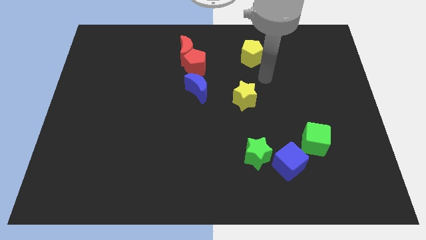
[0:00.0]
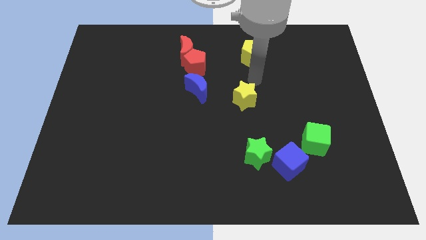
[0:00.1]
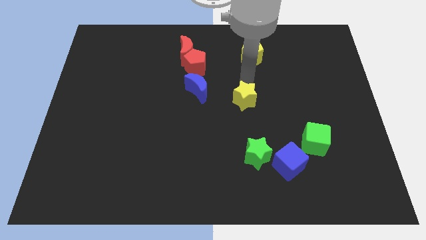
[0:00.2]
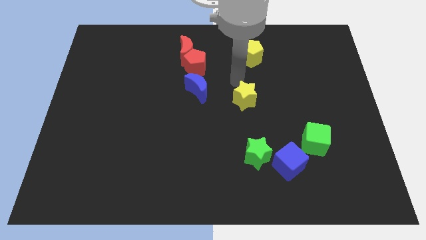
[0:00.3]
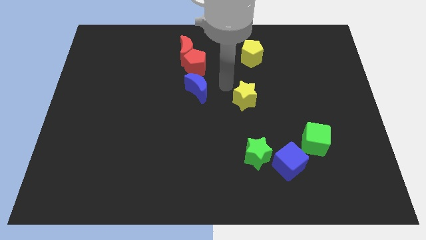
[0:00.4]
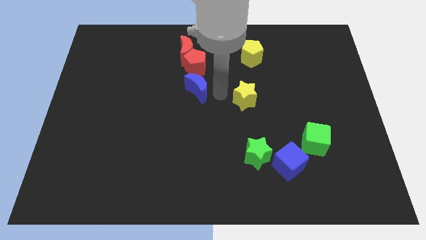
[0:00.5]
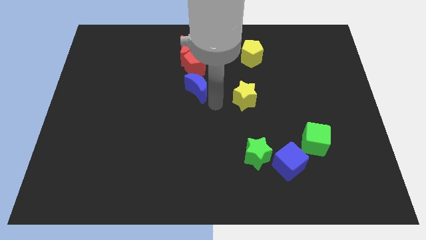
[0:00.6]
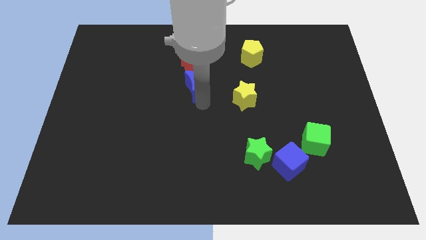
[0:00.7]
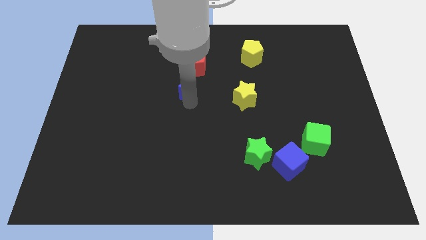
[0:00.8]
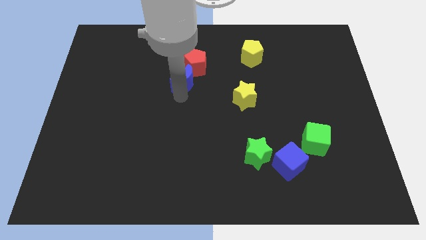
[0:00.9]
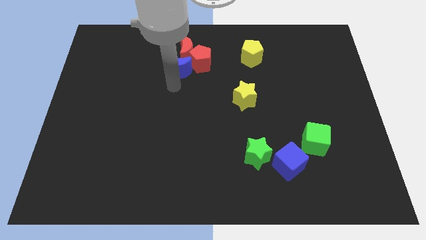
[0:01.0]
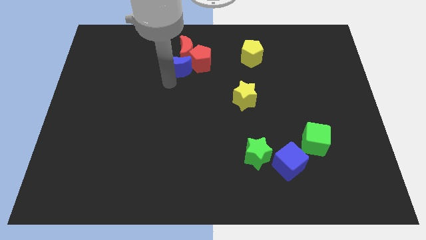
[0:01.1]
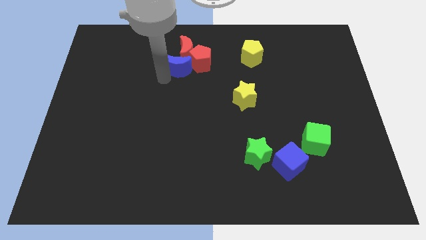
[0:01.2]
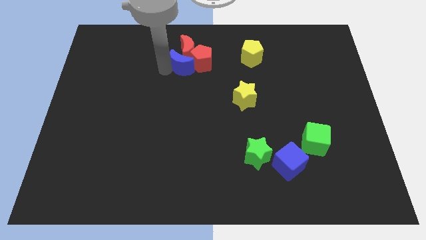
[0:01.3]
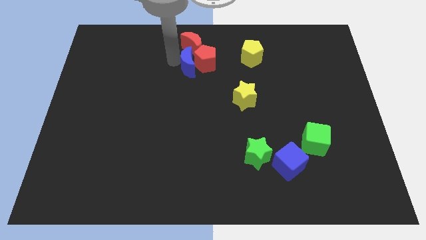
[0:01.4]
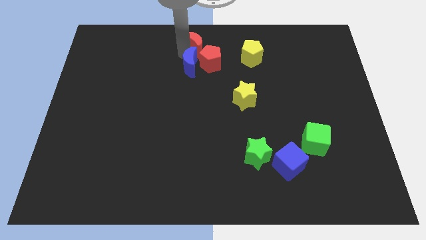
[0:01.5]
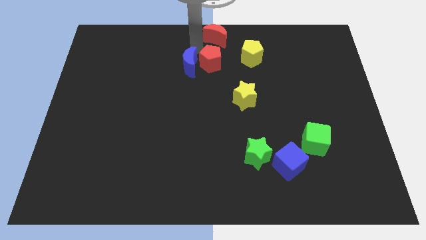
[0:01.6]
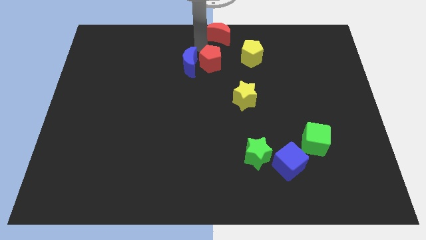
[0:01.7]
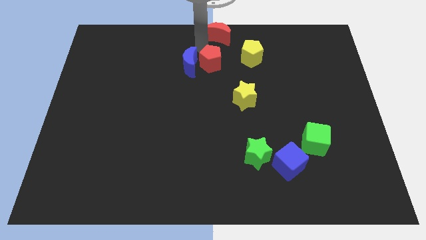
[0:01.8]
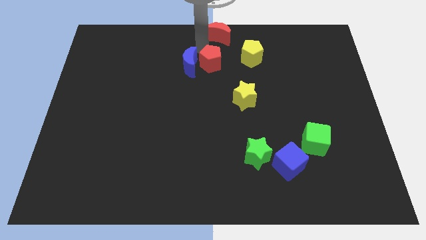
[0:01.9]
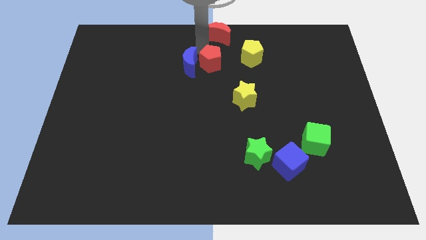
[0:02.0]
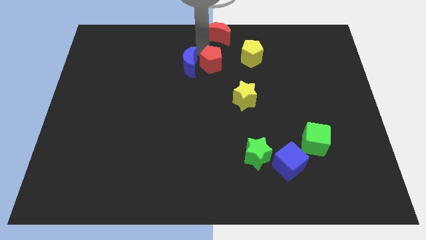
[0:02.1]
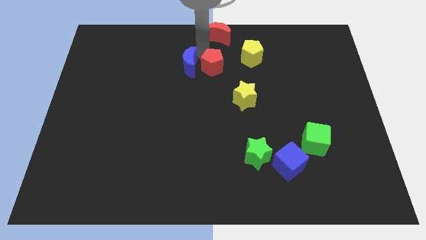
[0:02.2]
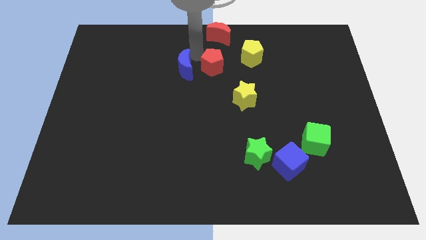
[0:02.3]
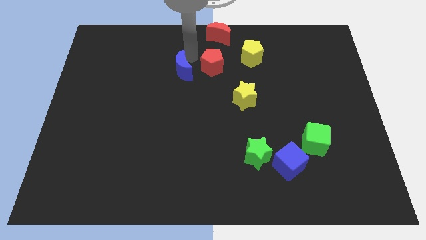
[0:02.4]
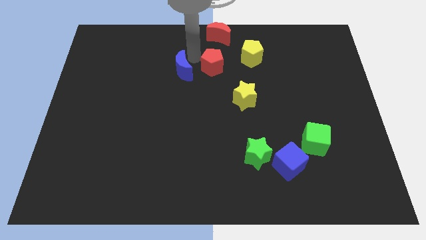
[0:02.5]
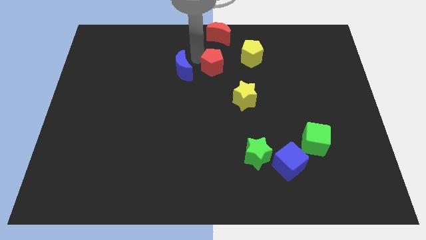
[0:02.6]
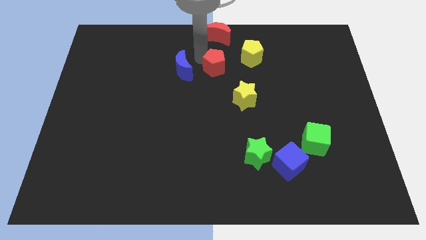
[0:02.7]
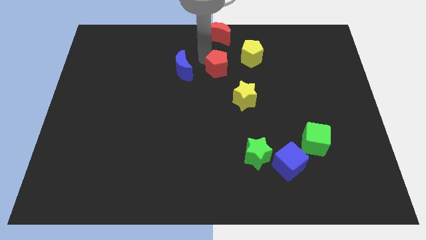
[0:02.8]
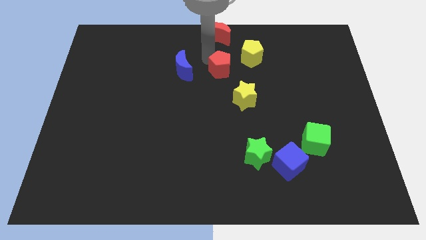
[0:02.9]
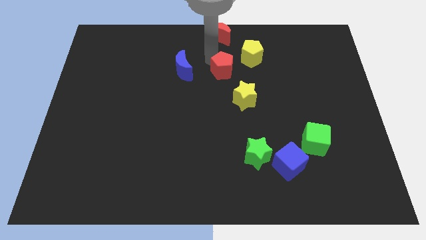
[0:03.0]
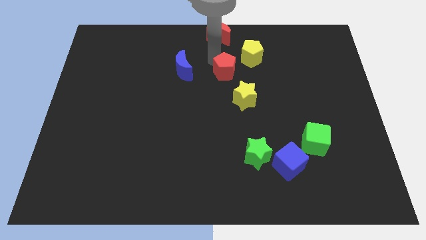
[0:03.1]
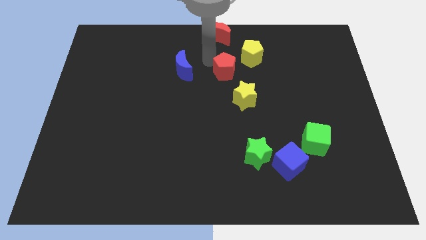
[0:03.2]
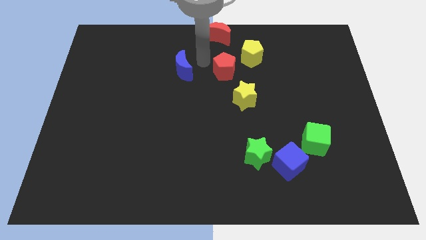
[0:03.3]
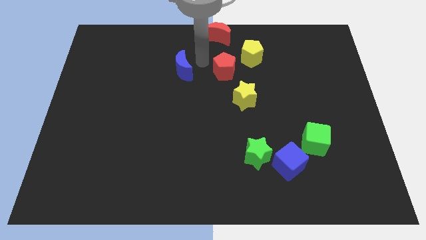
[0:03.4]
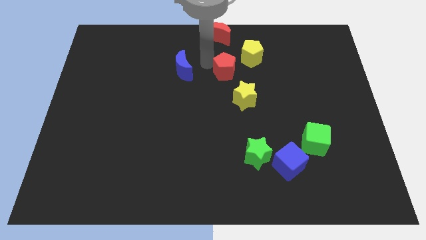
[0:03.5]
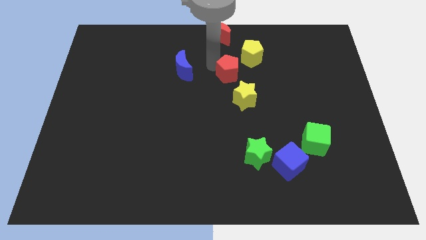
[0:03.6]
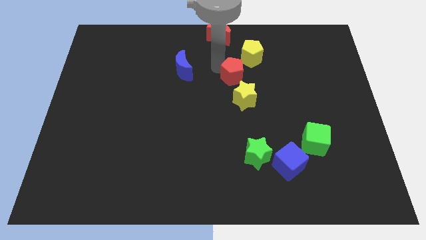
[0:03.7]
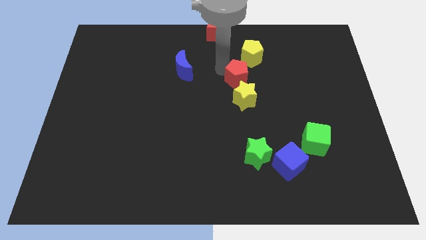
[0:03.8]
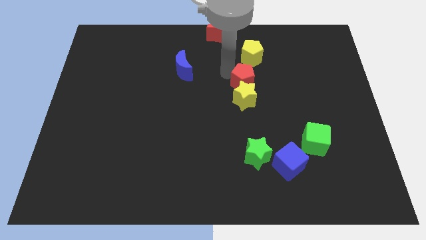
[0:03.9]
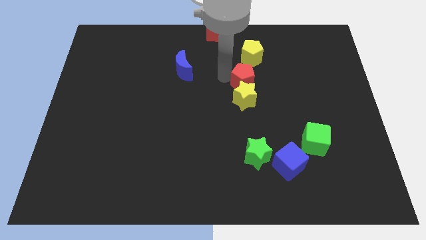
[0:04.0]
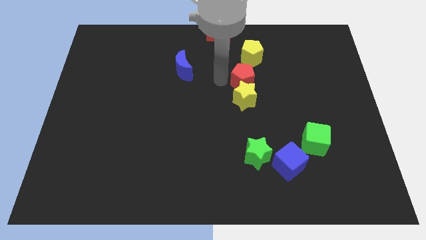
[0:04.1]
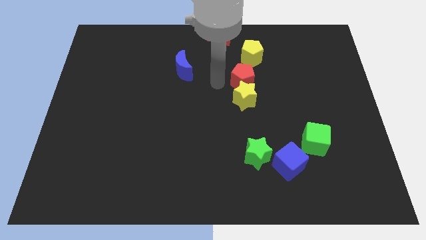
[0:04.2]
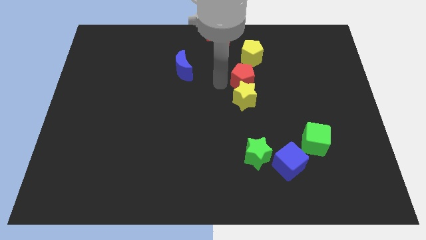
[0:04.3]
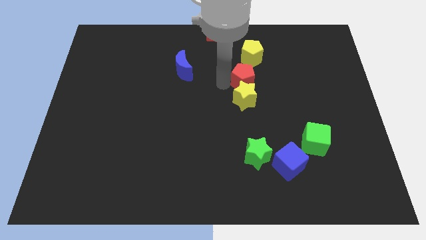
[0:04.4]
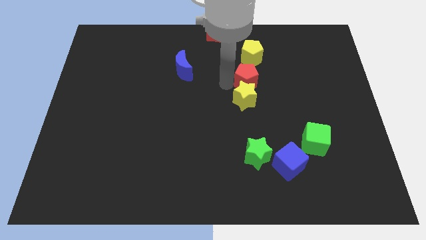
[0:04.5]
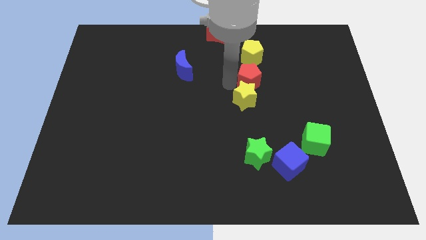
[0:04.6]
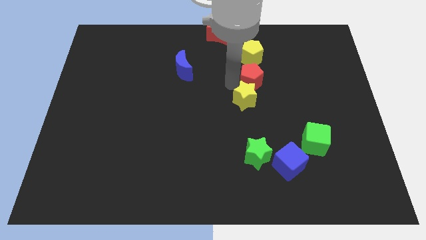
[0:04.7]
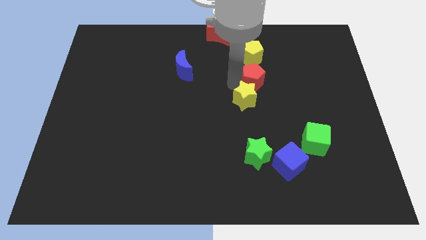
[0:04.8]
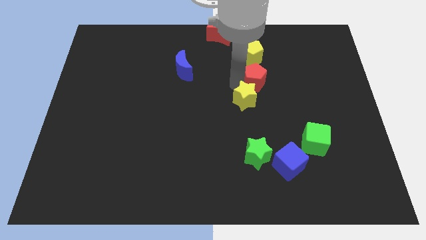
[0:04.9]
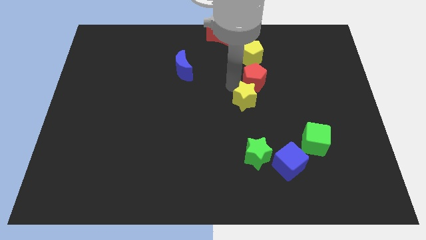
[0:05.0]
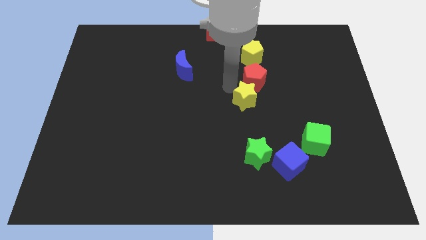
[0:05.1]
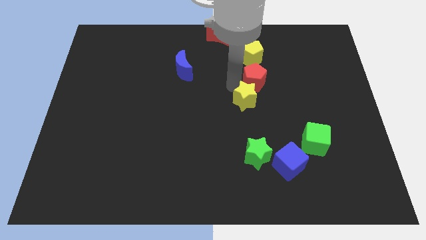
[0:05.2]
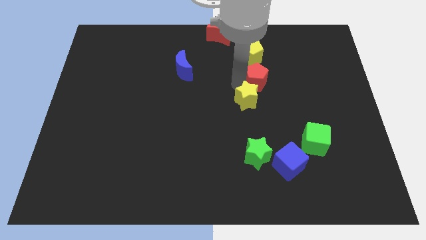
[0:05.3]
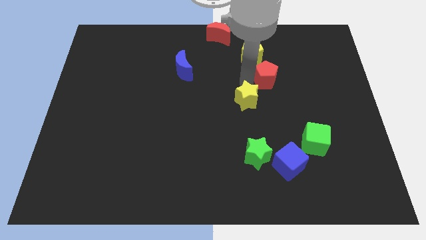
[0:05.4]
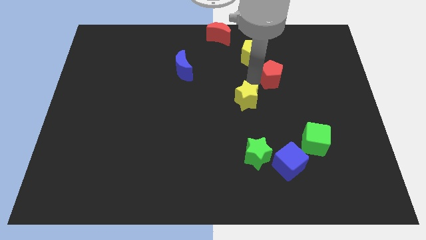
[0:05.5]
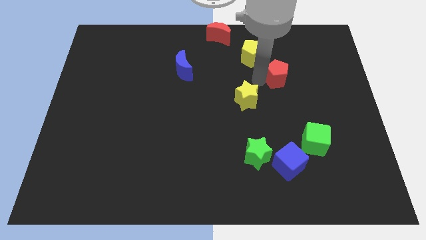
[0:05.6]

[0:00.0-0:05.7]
move the red pentagon right

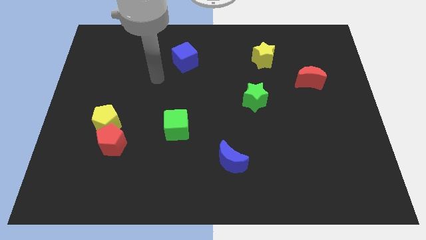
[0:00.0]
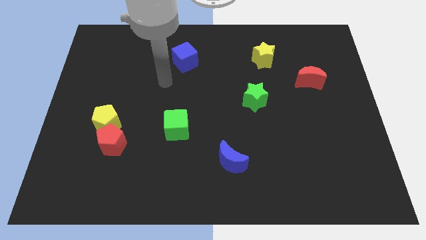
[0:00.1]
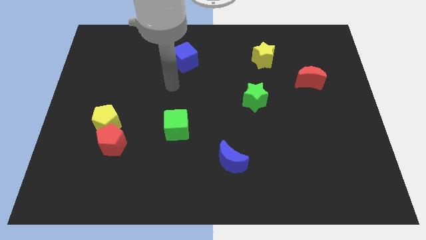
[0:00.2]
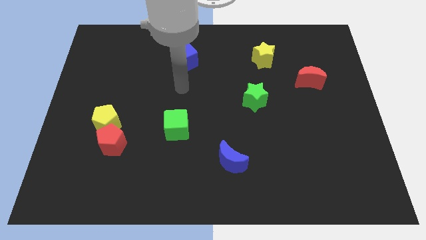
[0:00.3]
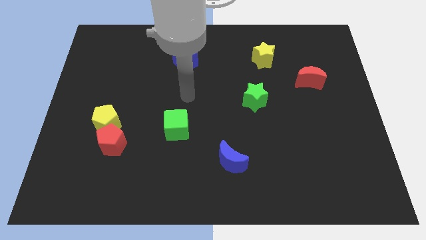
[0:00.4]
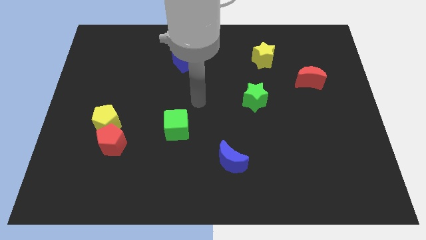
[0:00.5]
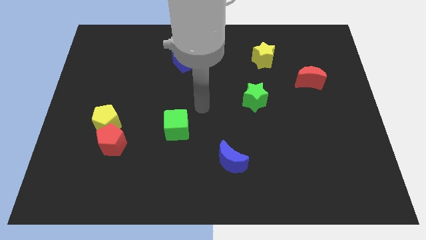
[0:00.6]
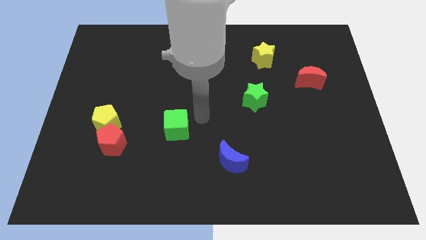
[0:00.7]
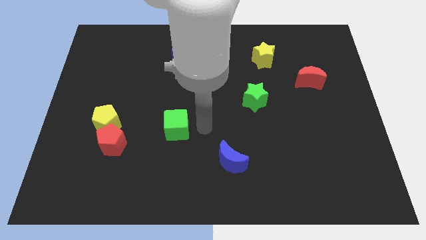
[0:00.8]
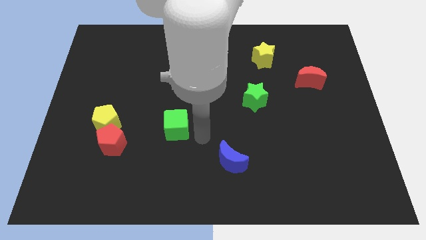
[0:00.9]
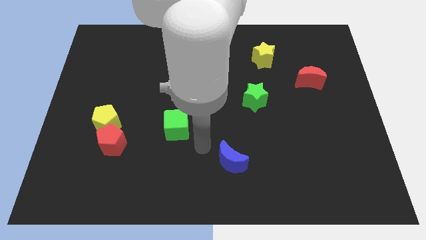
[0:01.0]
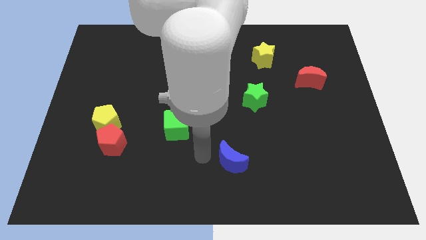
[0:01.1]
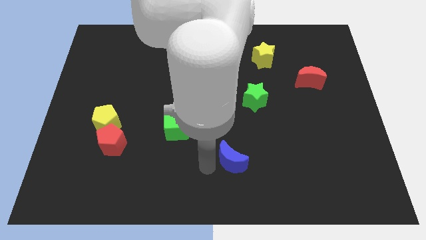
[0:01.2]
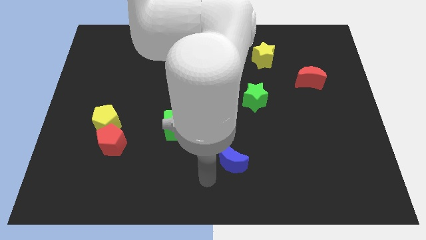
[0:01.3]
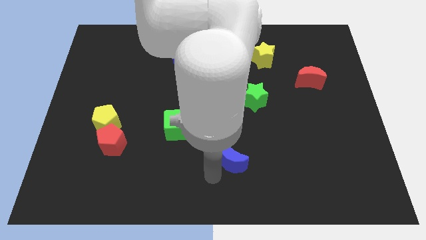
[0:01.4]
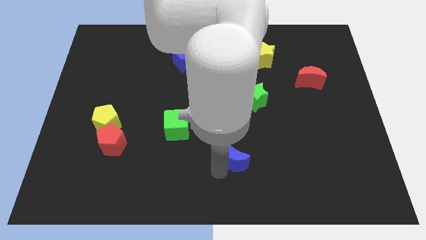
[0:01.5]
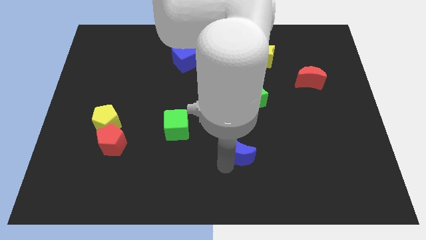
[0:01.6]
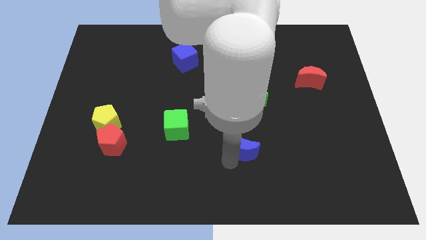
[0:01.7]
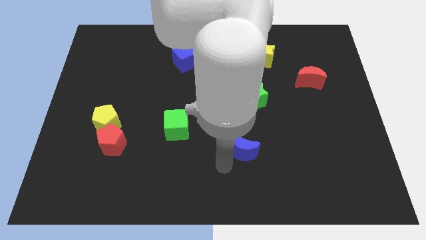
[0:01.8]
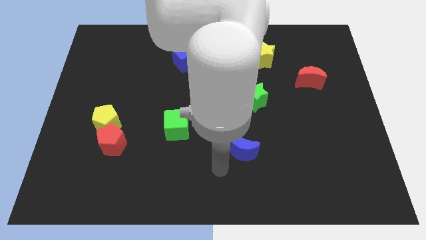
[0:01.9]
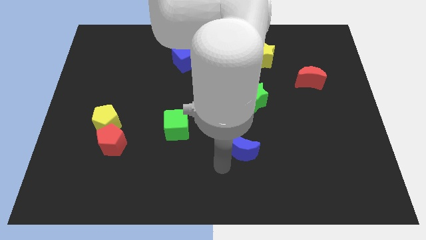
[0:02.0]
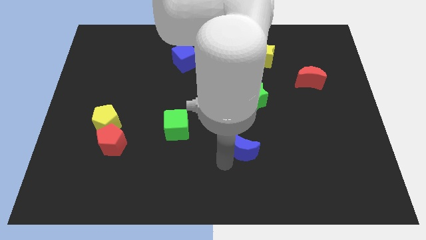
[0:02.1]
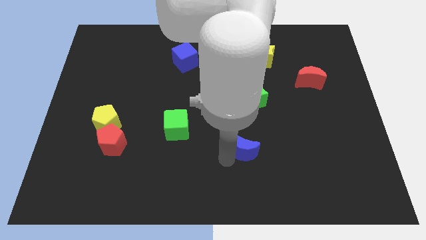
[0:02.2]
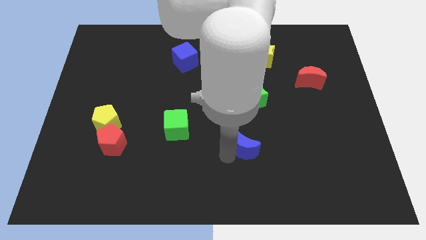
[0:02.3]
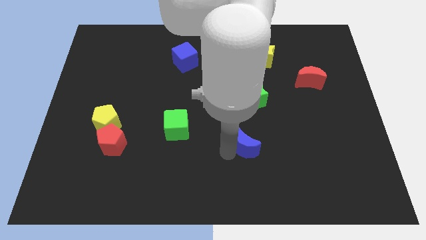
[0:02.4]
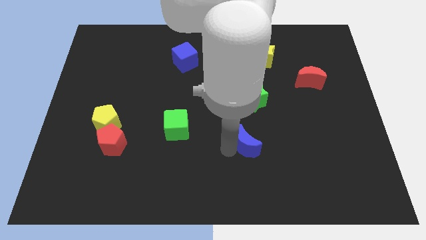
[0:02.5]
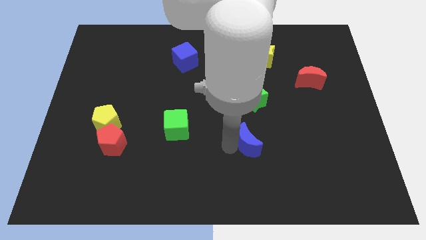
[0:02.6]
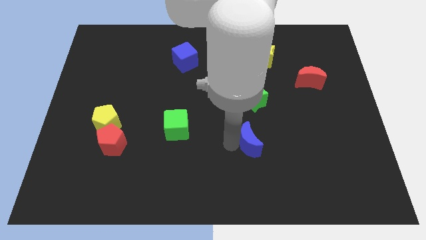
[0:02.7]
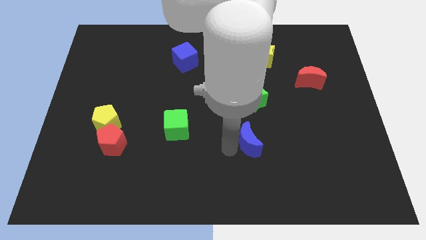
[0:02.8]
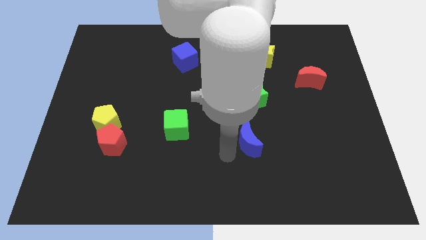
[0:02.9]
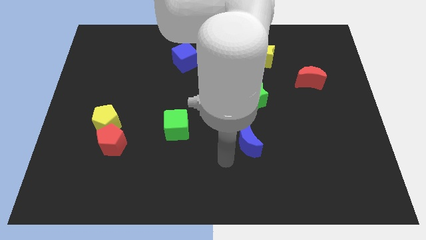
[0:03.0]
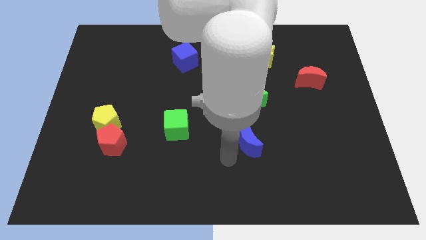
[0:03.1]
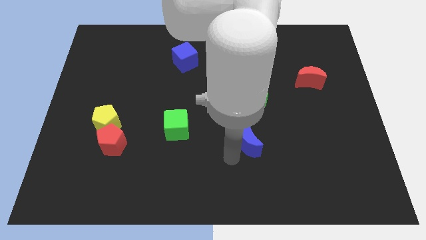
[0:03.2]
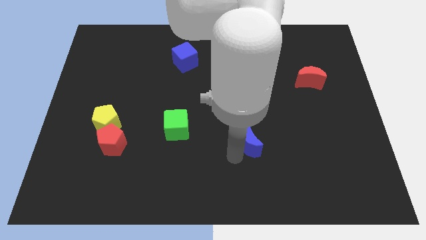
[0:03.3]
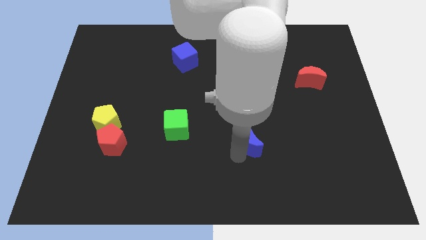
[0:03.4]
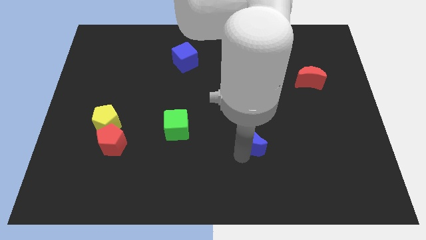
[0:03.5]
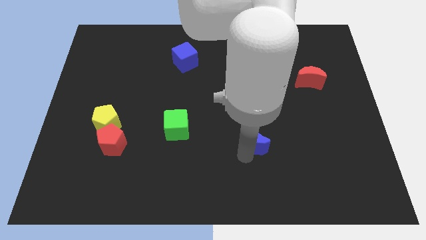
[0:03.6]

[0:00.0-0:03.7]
slightly push the blue moon diagonally upwards and right
